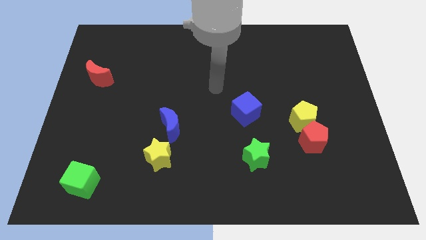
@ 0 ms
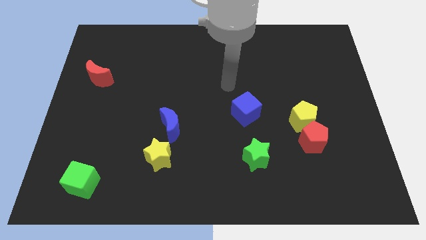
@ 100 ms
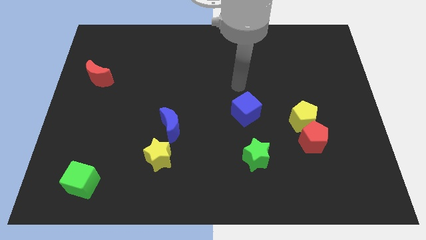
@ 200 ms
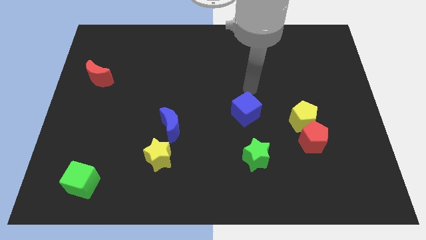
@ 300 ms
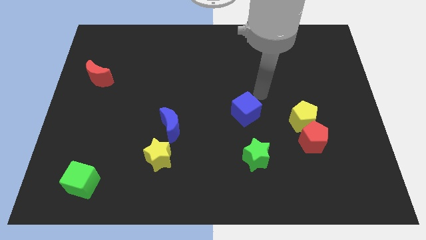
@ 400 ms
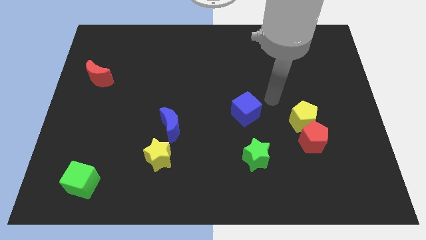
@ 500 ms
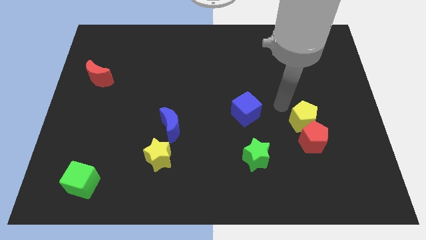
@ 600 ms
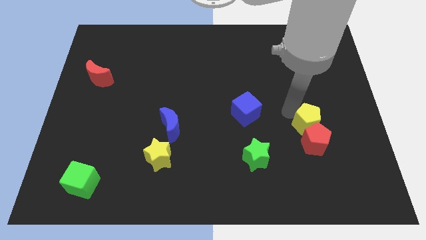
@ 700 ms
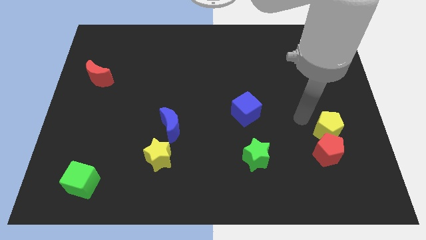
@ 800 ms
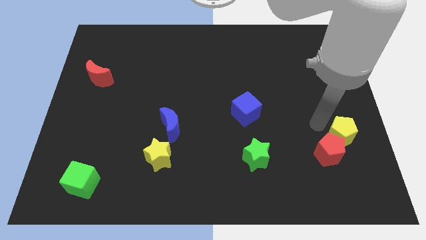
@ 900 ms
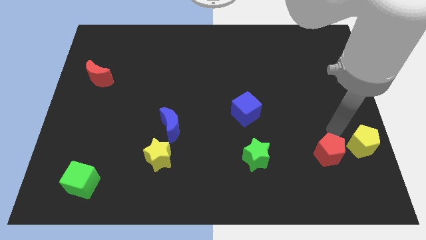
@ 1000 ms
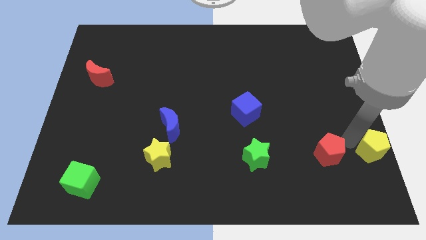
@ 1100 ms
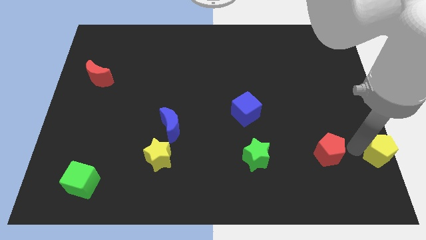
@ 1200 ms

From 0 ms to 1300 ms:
move the red pentagon away from the yellow pentagon

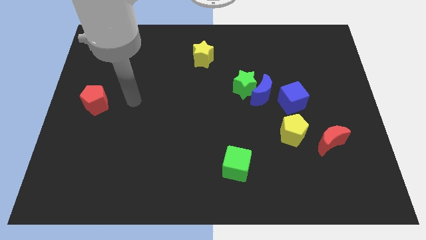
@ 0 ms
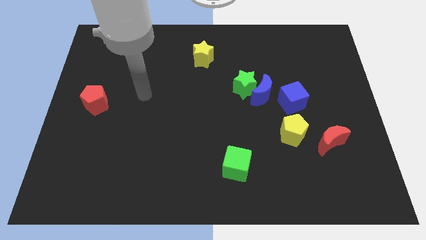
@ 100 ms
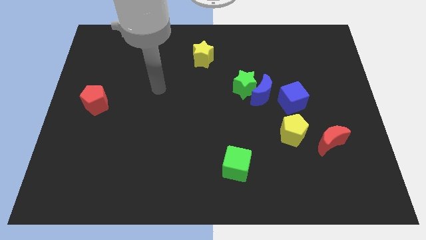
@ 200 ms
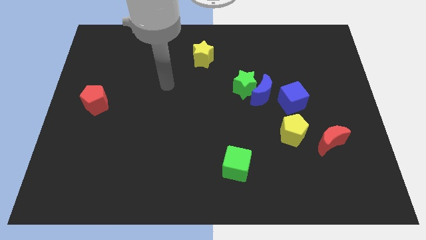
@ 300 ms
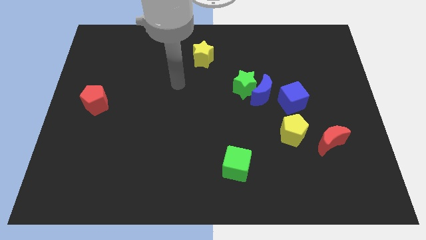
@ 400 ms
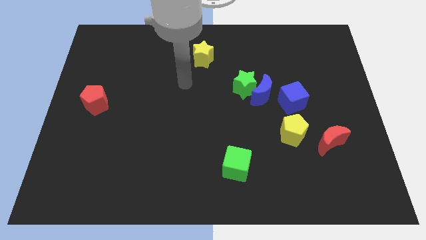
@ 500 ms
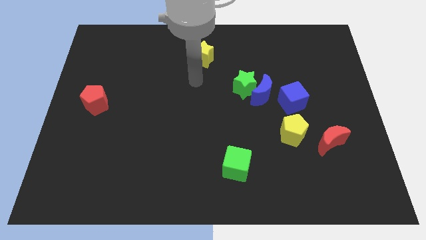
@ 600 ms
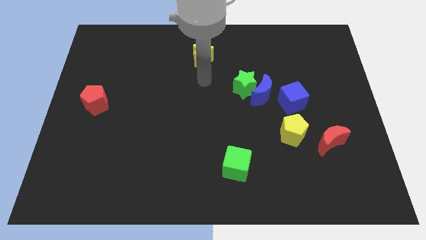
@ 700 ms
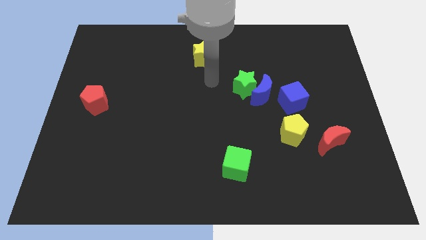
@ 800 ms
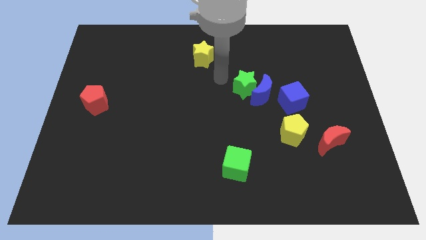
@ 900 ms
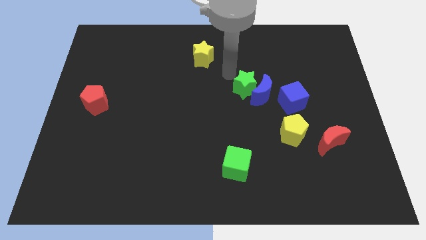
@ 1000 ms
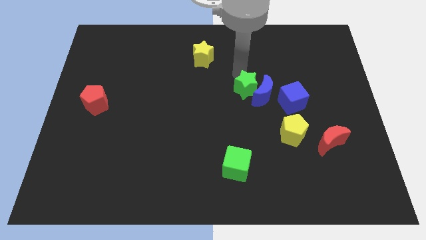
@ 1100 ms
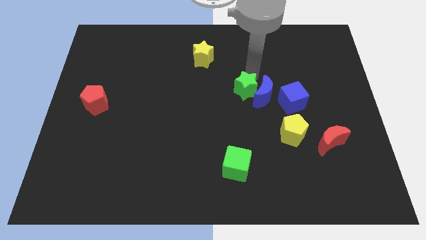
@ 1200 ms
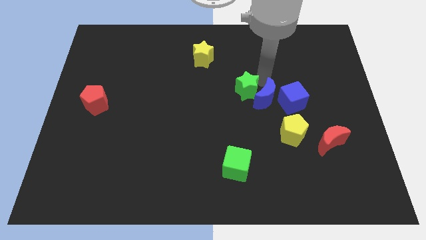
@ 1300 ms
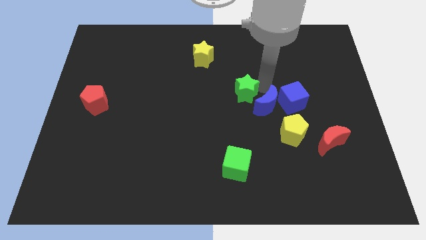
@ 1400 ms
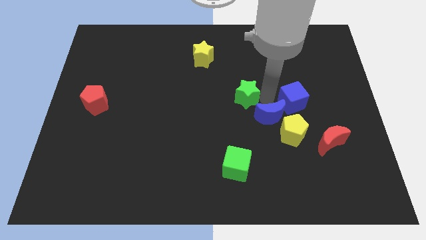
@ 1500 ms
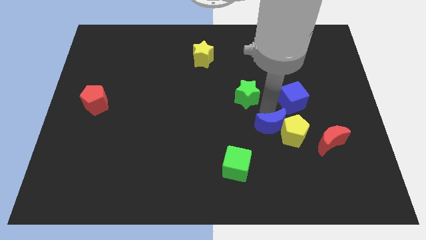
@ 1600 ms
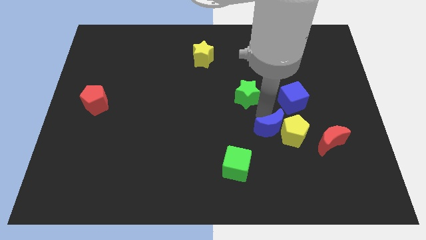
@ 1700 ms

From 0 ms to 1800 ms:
separate the green star from the blue moon

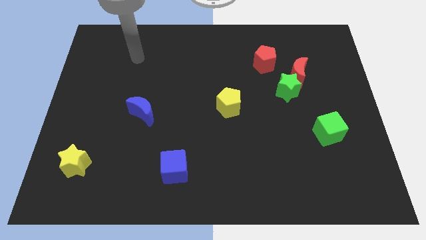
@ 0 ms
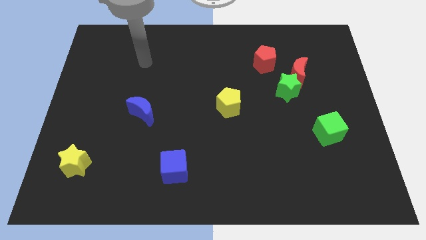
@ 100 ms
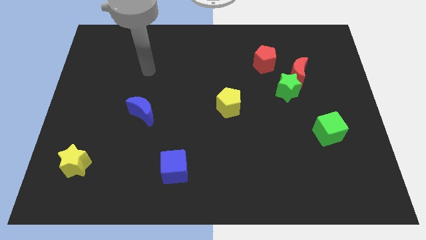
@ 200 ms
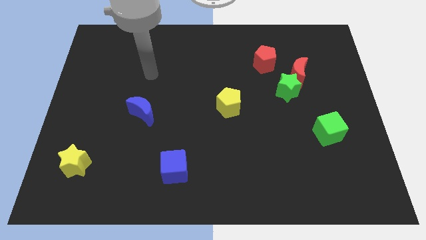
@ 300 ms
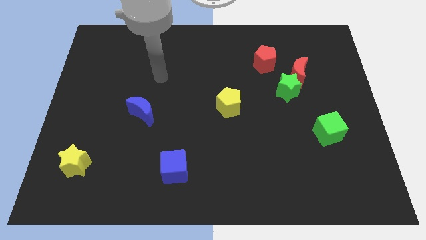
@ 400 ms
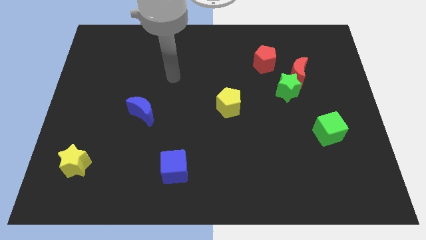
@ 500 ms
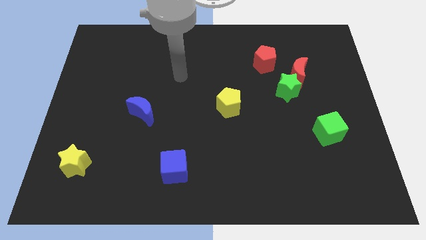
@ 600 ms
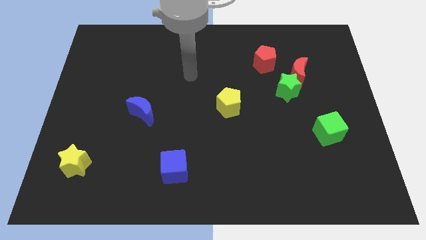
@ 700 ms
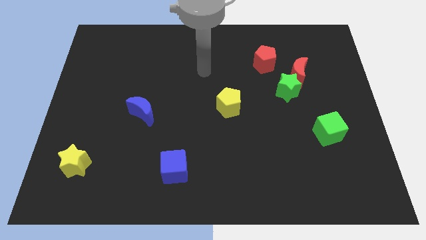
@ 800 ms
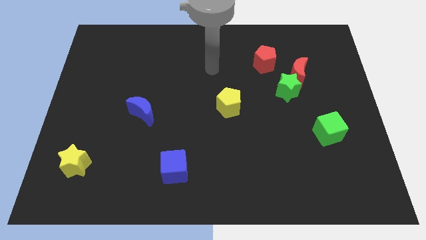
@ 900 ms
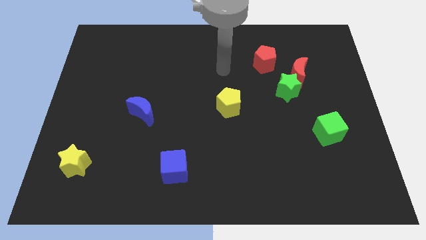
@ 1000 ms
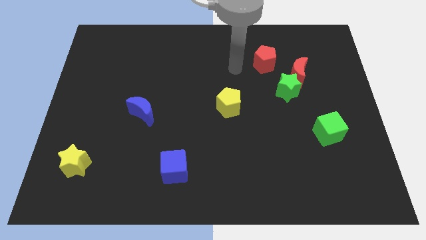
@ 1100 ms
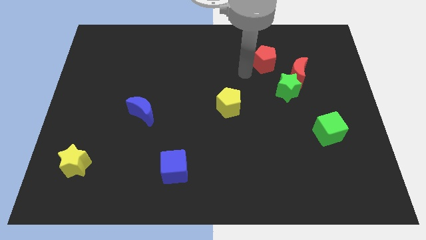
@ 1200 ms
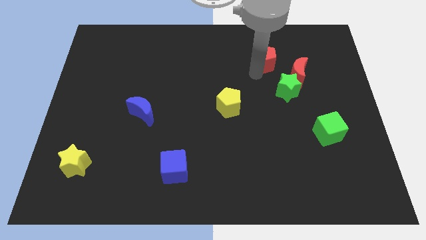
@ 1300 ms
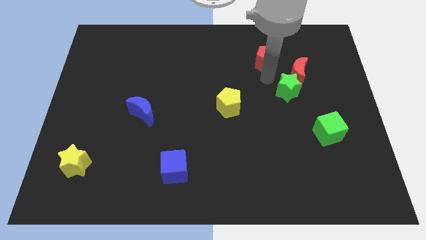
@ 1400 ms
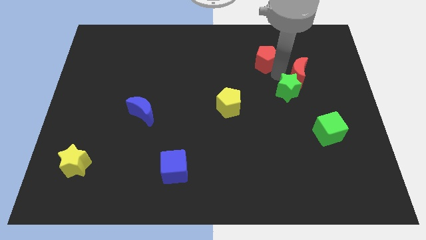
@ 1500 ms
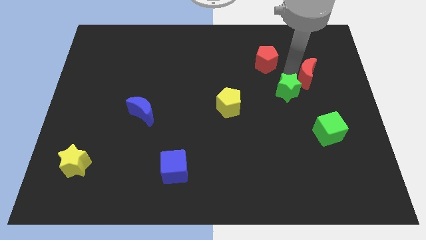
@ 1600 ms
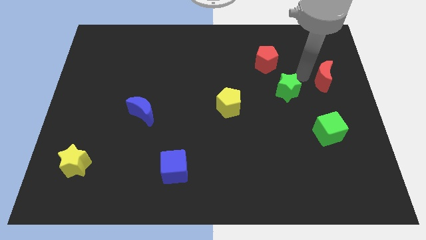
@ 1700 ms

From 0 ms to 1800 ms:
pull the green star apart from the red moon

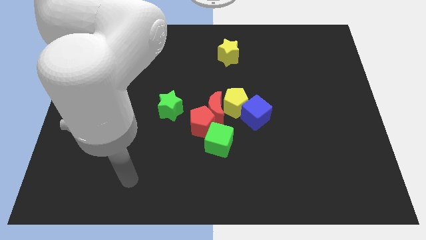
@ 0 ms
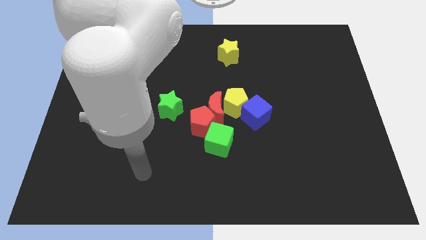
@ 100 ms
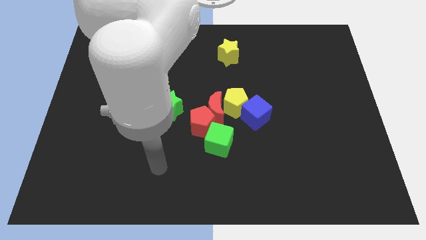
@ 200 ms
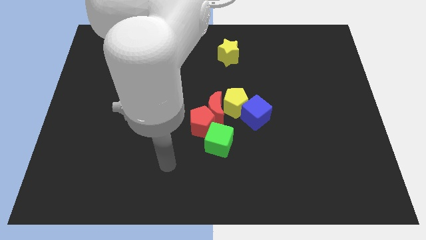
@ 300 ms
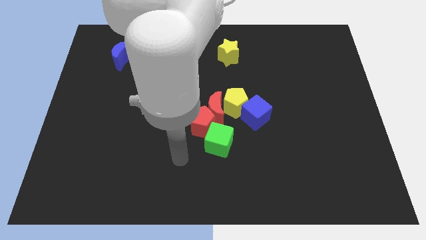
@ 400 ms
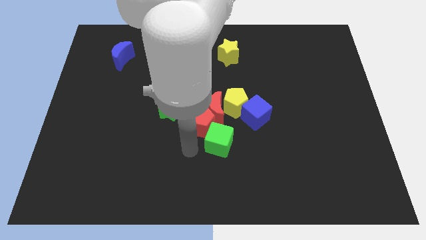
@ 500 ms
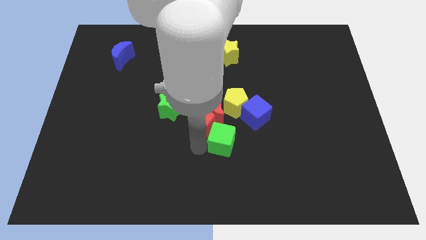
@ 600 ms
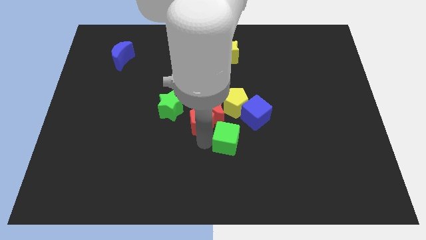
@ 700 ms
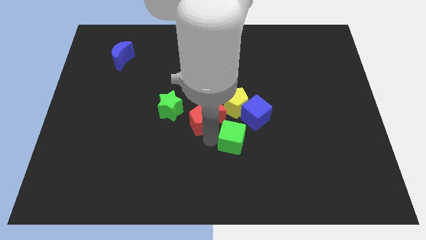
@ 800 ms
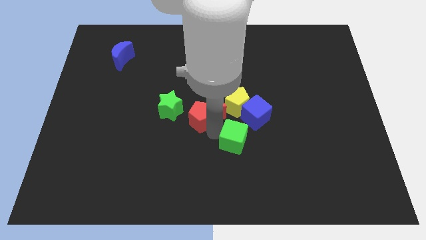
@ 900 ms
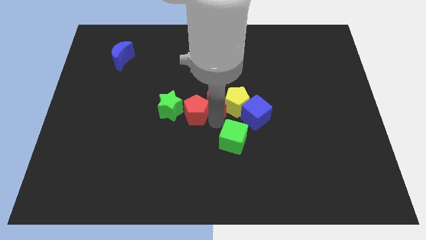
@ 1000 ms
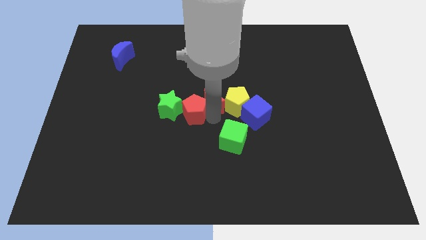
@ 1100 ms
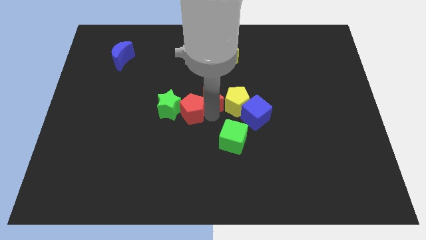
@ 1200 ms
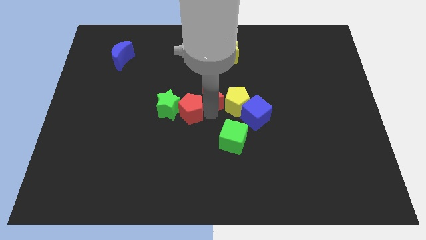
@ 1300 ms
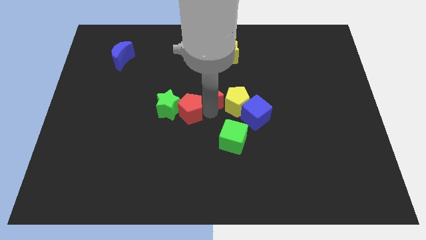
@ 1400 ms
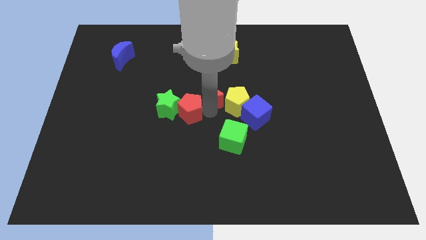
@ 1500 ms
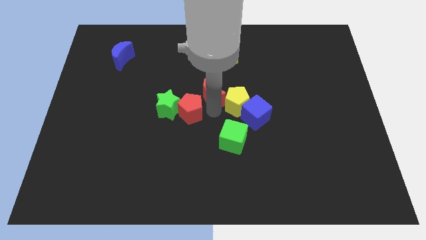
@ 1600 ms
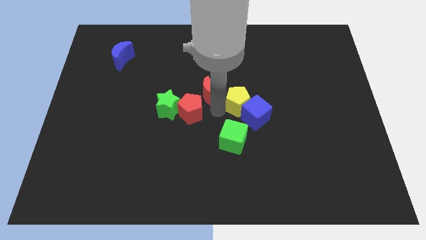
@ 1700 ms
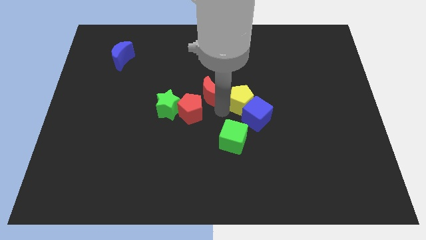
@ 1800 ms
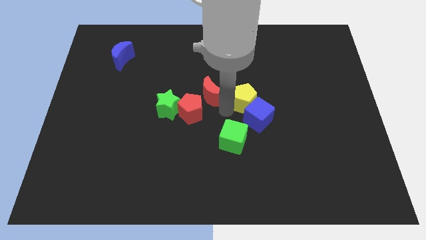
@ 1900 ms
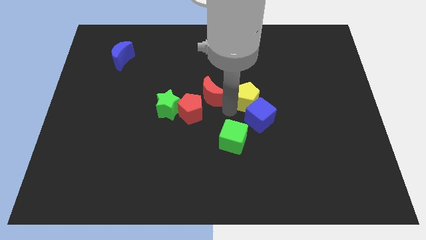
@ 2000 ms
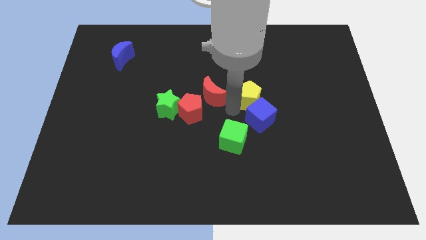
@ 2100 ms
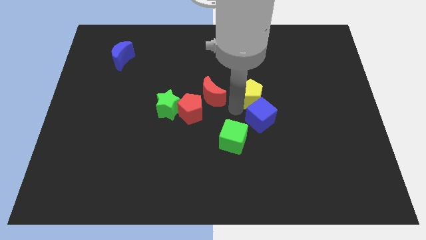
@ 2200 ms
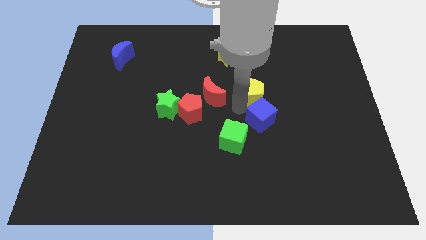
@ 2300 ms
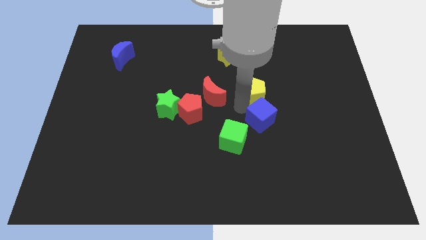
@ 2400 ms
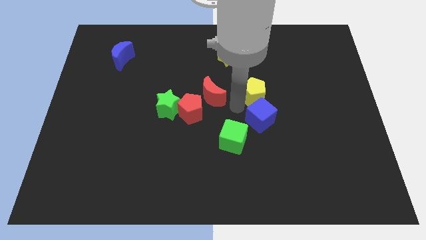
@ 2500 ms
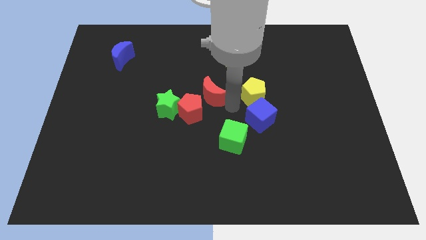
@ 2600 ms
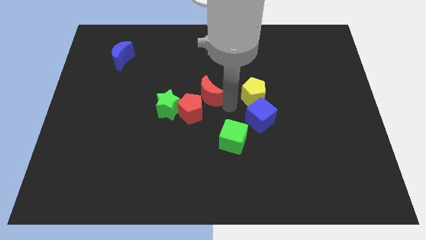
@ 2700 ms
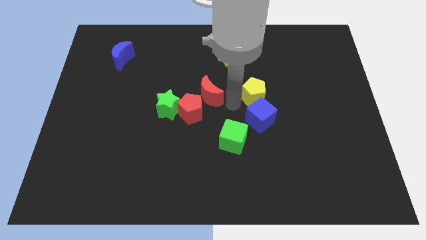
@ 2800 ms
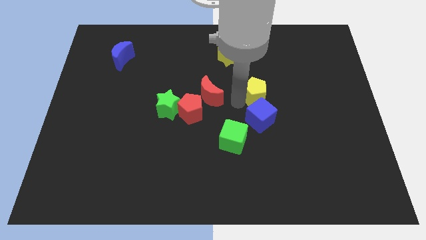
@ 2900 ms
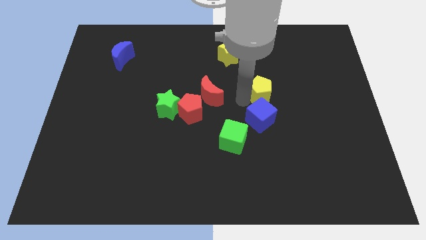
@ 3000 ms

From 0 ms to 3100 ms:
separate the yellow pentagon from the clump

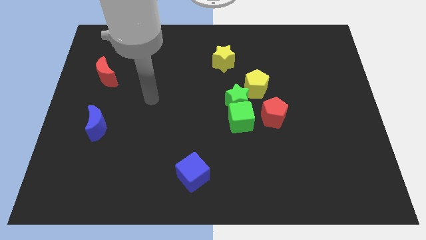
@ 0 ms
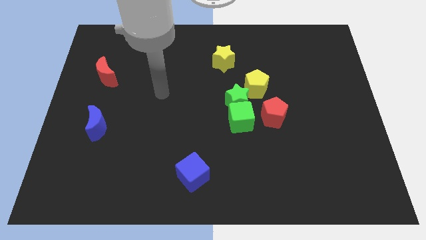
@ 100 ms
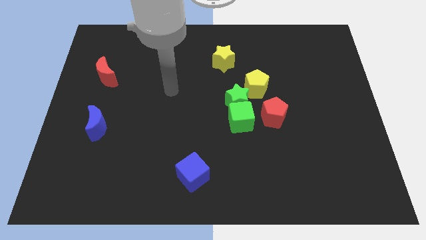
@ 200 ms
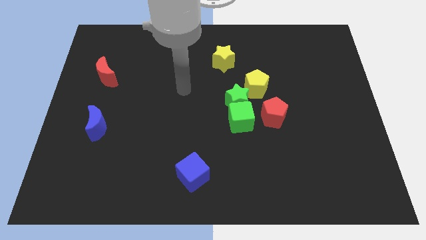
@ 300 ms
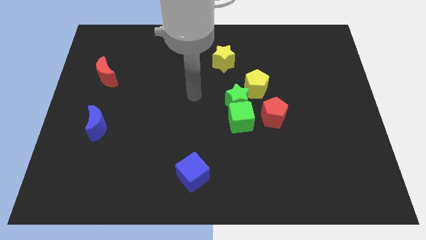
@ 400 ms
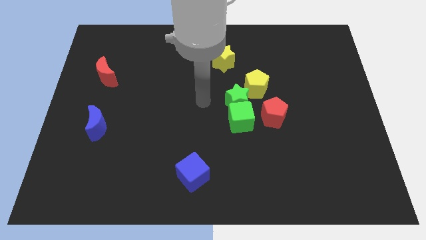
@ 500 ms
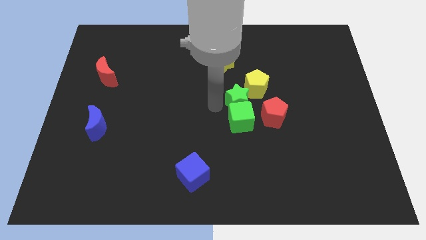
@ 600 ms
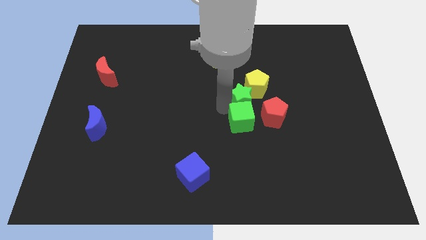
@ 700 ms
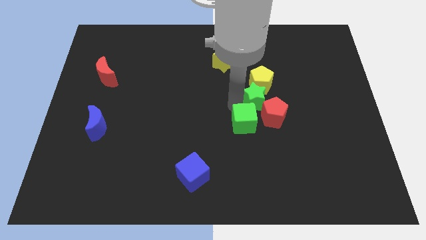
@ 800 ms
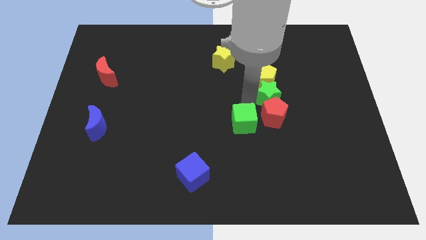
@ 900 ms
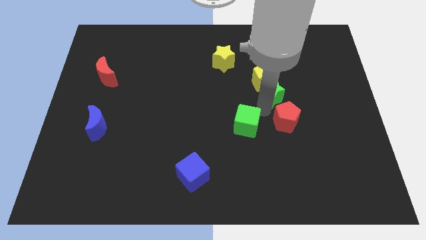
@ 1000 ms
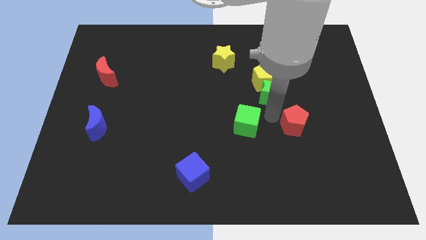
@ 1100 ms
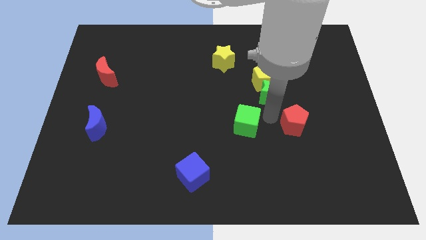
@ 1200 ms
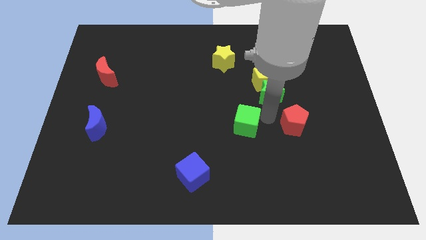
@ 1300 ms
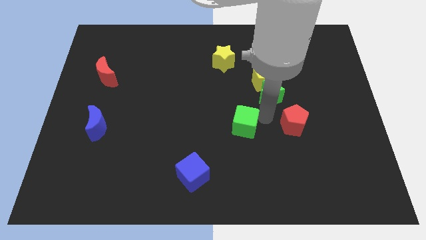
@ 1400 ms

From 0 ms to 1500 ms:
separate the green cube from the green star and red pentagon
